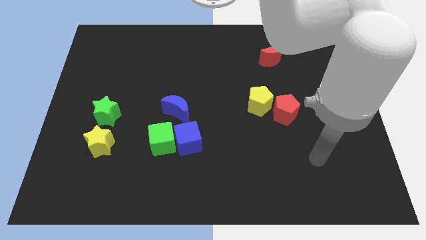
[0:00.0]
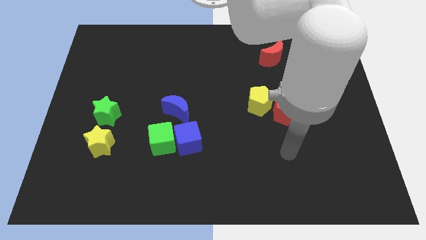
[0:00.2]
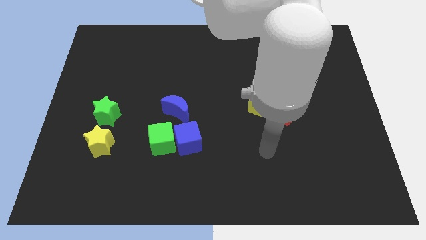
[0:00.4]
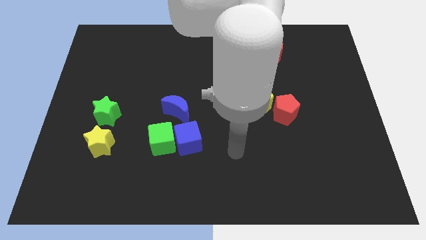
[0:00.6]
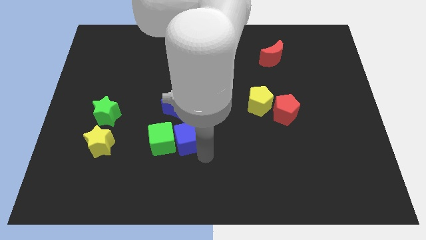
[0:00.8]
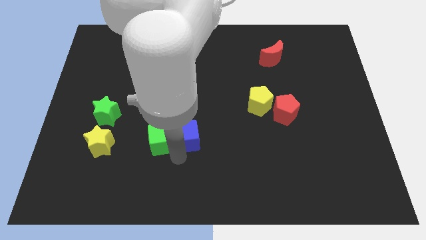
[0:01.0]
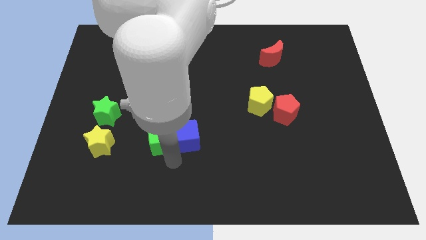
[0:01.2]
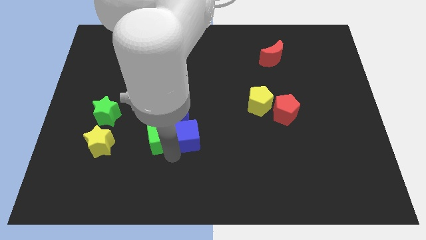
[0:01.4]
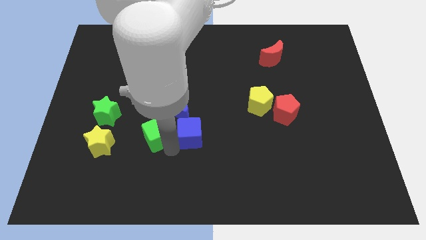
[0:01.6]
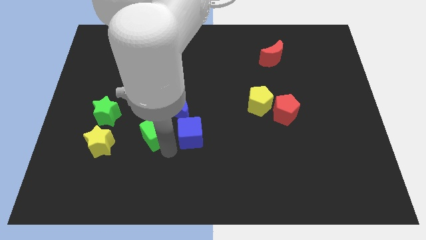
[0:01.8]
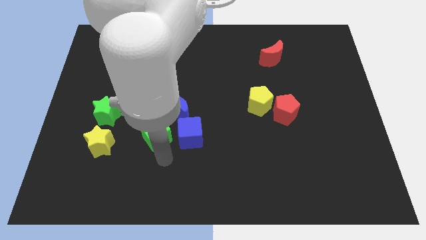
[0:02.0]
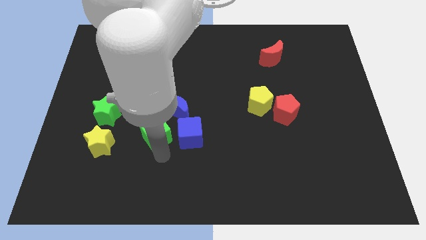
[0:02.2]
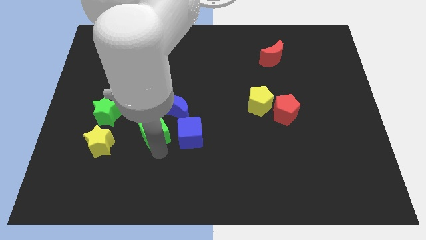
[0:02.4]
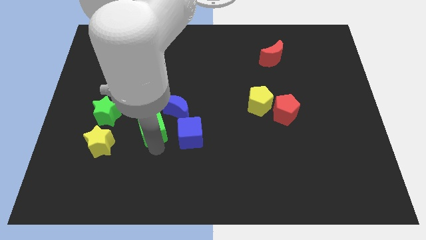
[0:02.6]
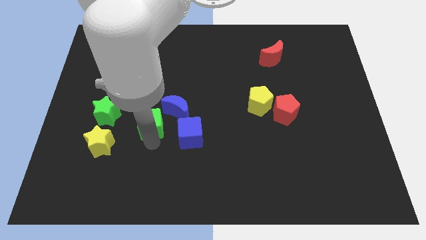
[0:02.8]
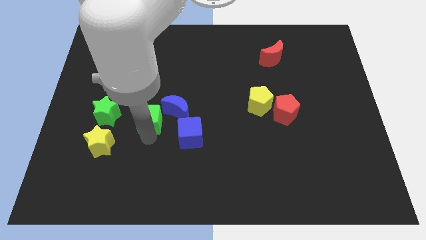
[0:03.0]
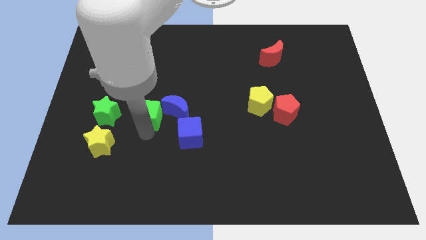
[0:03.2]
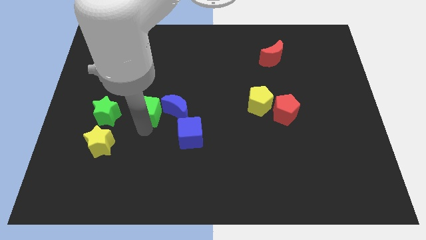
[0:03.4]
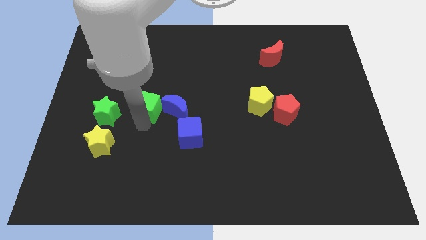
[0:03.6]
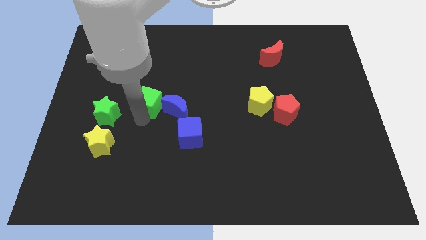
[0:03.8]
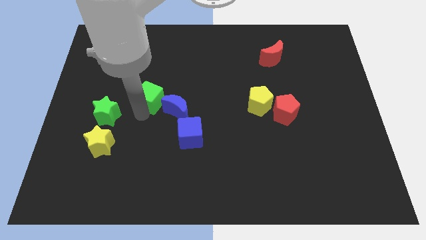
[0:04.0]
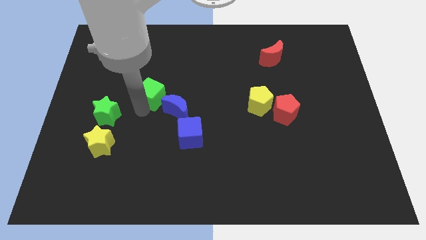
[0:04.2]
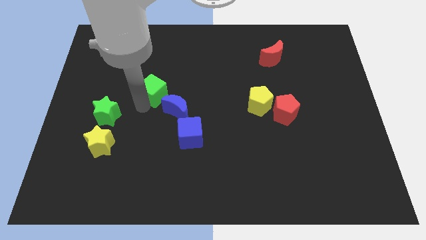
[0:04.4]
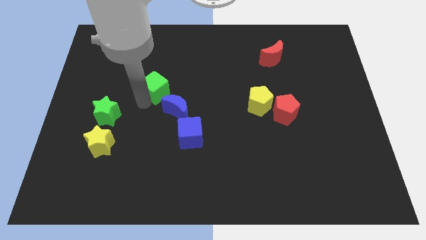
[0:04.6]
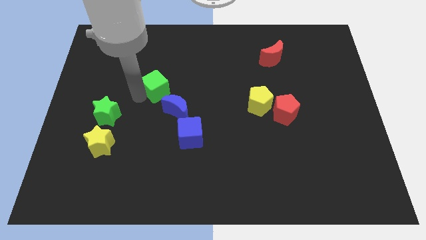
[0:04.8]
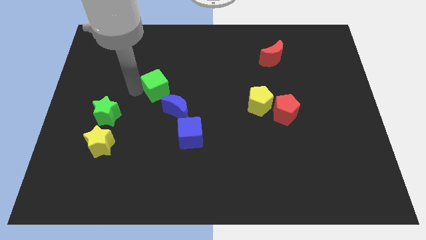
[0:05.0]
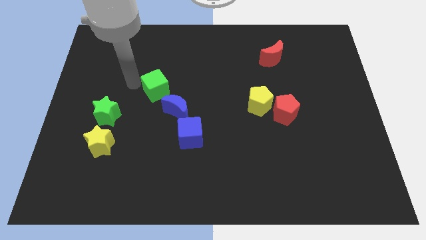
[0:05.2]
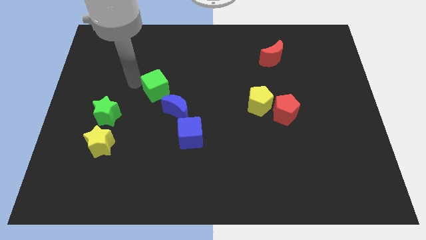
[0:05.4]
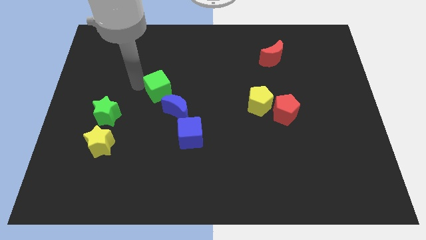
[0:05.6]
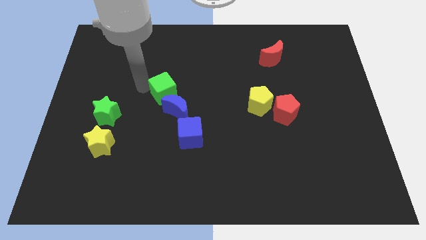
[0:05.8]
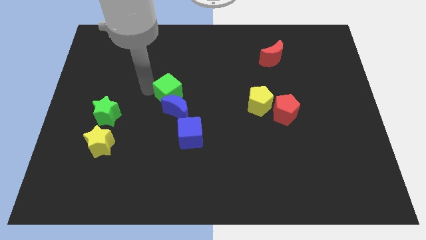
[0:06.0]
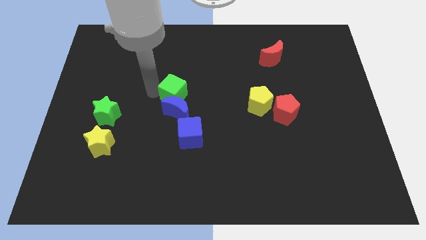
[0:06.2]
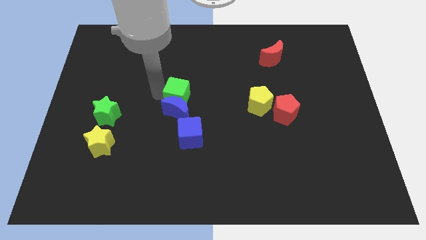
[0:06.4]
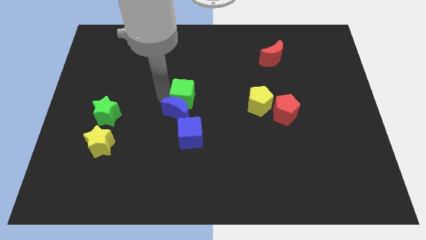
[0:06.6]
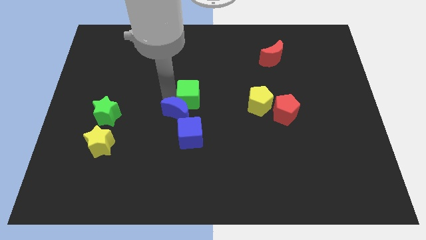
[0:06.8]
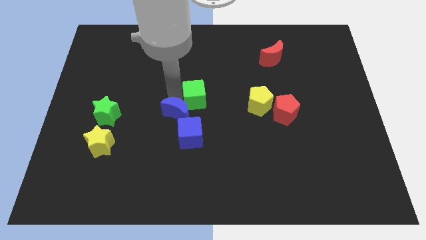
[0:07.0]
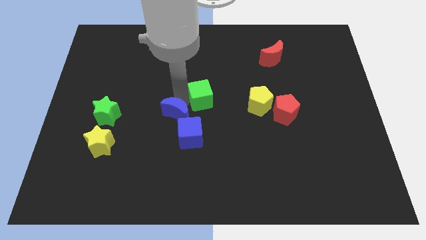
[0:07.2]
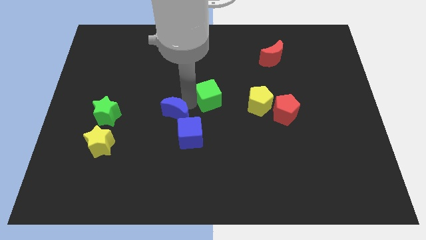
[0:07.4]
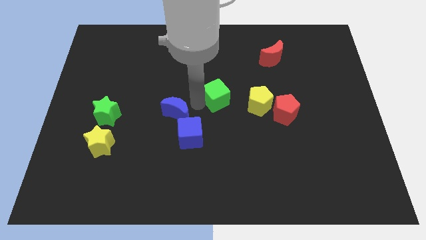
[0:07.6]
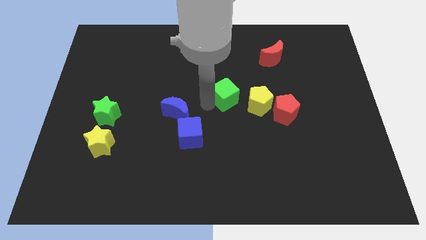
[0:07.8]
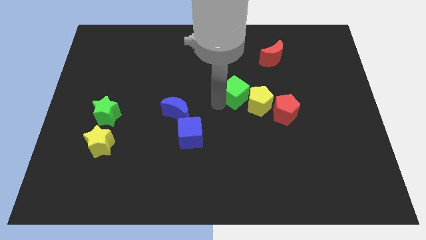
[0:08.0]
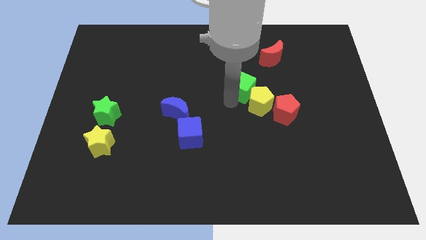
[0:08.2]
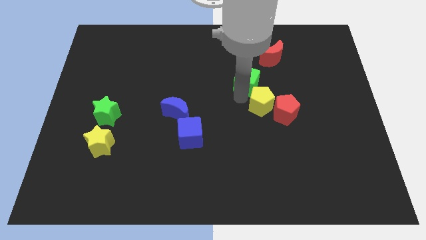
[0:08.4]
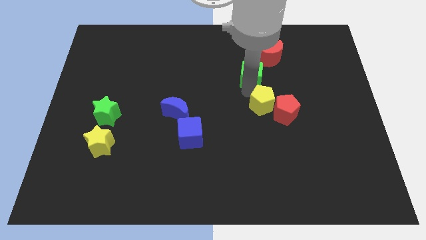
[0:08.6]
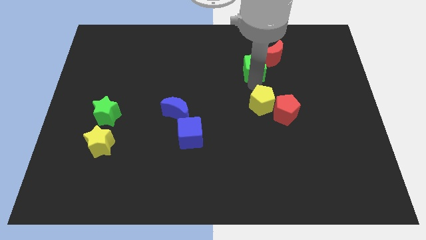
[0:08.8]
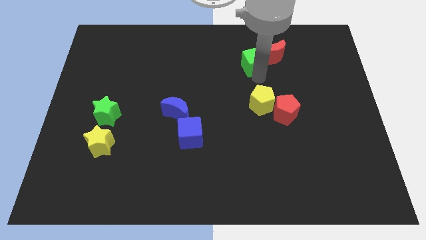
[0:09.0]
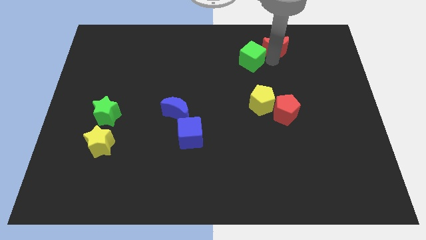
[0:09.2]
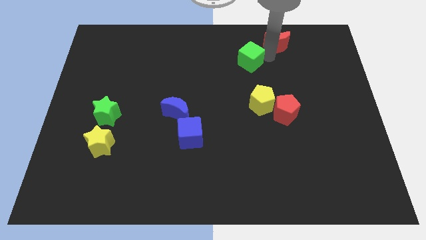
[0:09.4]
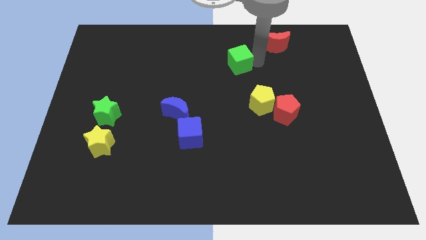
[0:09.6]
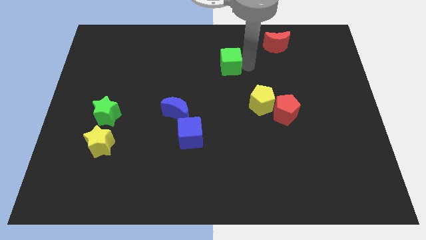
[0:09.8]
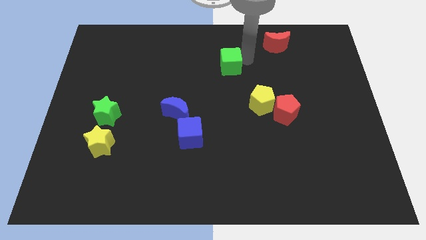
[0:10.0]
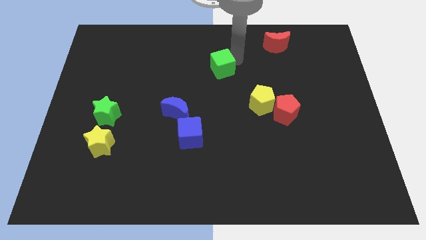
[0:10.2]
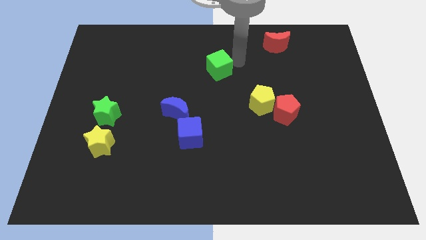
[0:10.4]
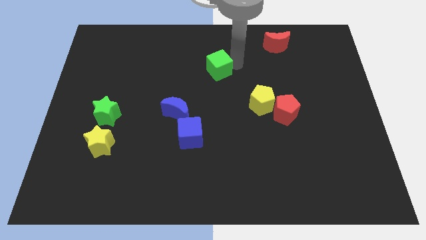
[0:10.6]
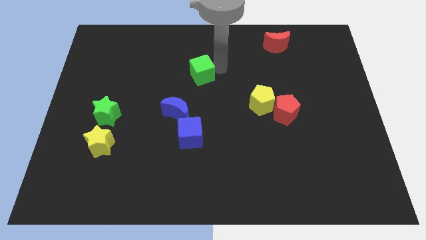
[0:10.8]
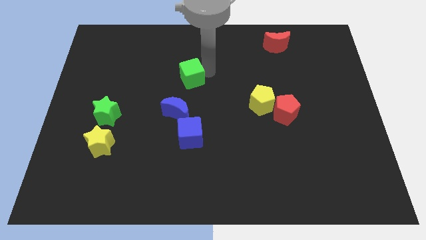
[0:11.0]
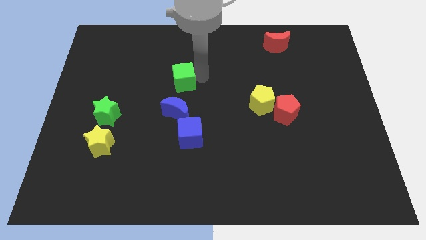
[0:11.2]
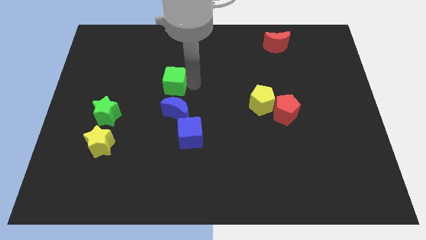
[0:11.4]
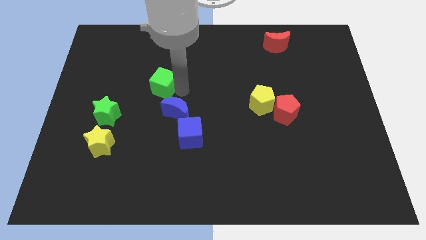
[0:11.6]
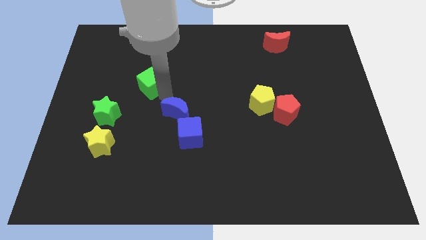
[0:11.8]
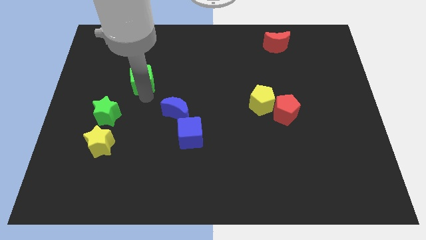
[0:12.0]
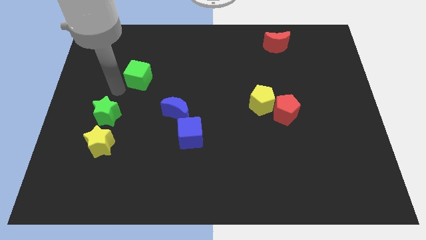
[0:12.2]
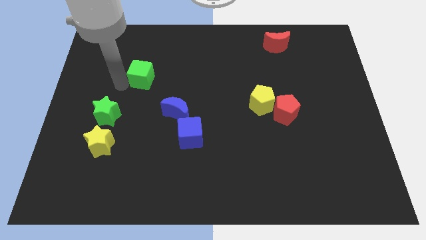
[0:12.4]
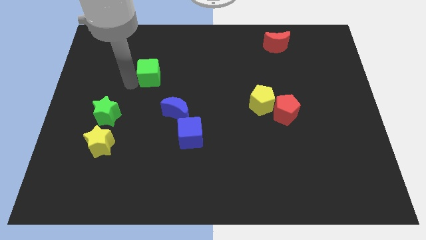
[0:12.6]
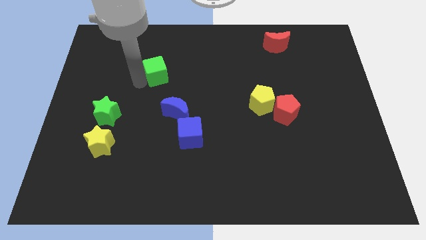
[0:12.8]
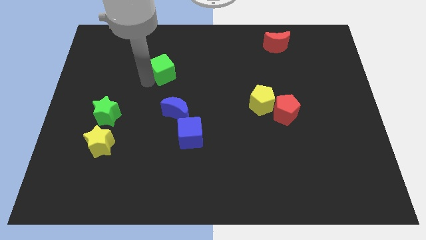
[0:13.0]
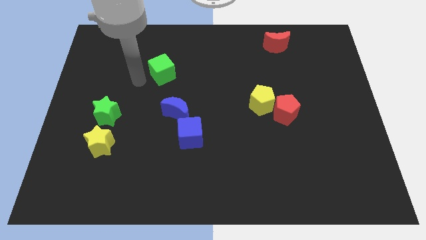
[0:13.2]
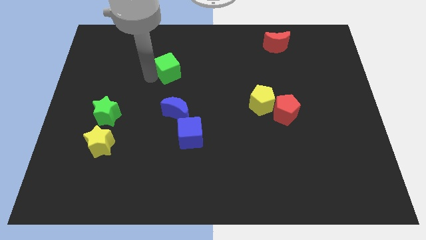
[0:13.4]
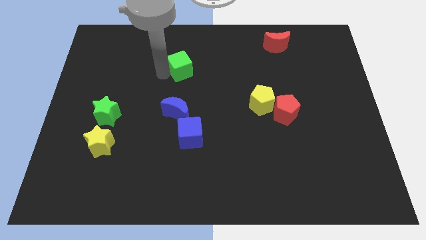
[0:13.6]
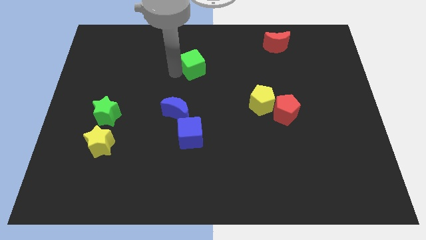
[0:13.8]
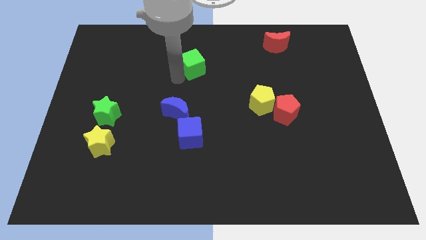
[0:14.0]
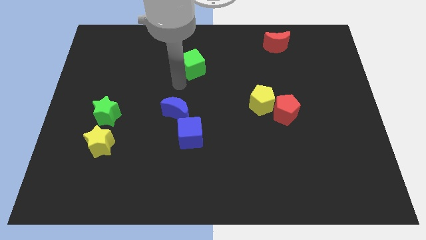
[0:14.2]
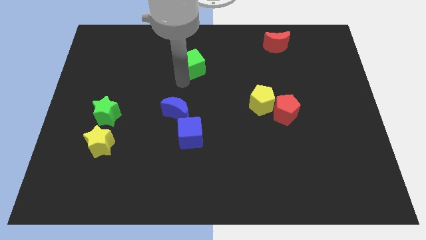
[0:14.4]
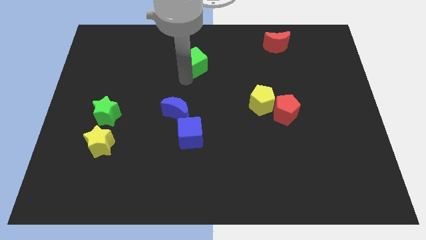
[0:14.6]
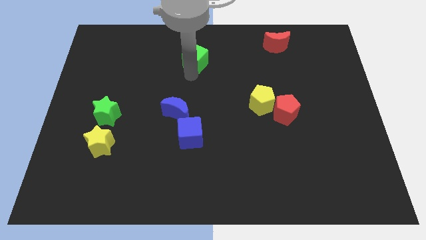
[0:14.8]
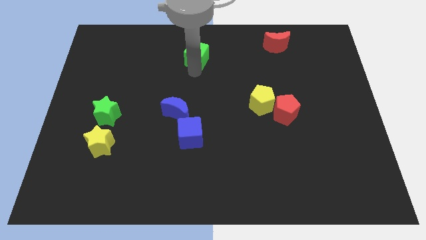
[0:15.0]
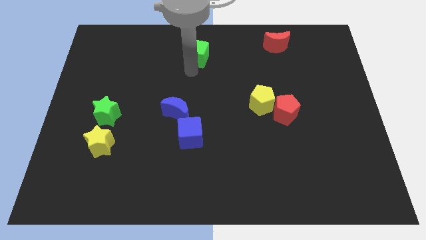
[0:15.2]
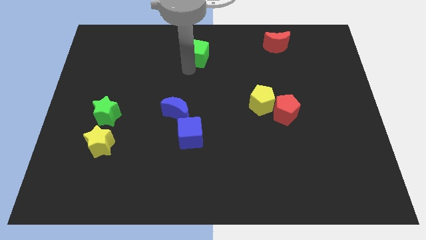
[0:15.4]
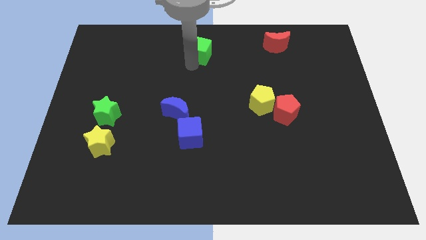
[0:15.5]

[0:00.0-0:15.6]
move the green cube to the top
